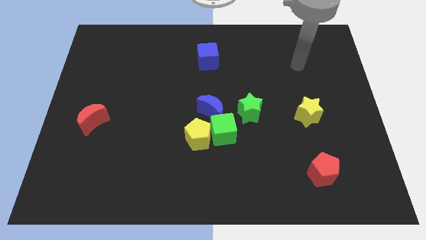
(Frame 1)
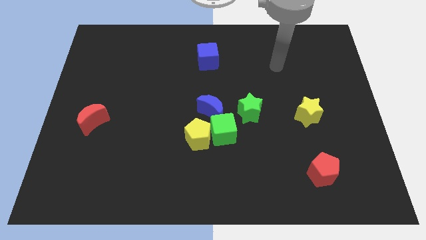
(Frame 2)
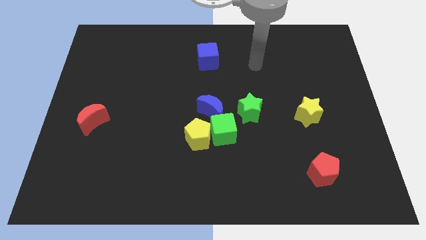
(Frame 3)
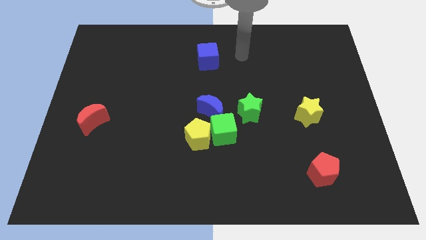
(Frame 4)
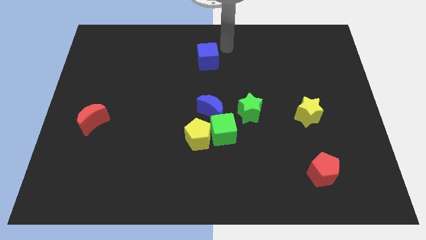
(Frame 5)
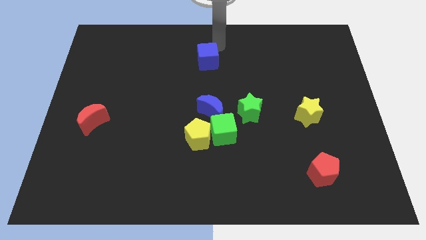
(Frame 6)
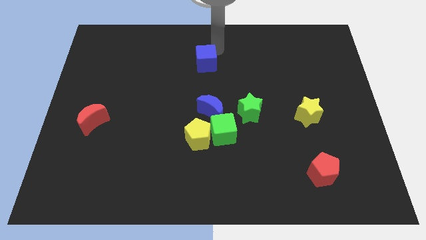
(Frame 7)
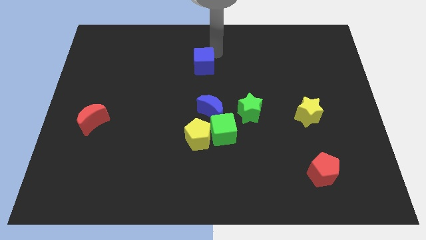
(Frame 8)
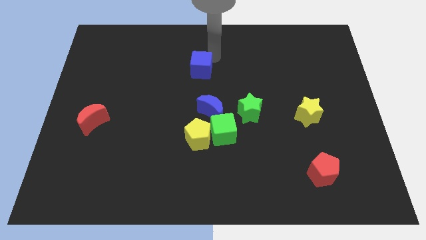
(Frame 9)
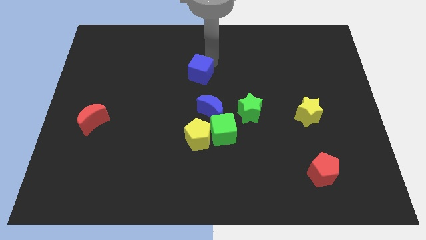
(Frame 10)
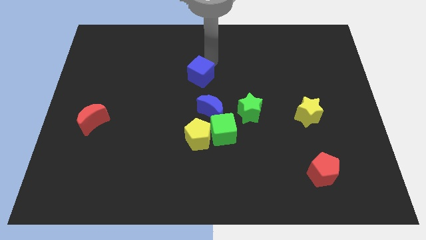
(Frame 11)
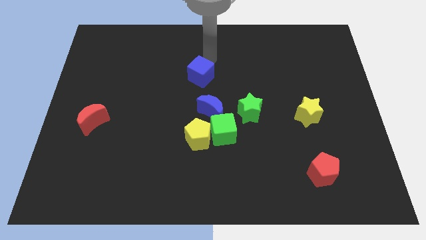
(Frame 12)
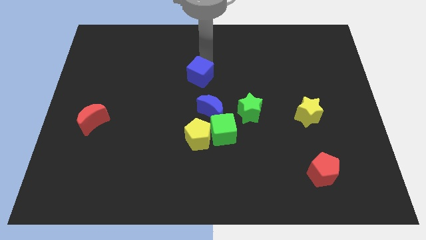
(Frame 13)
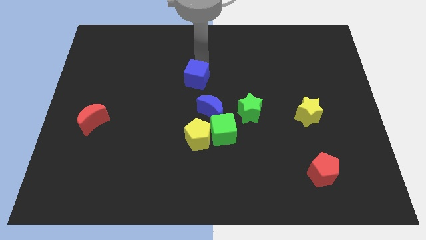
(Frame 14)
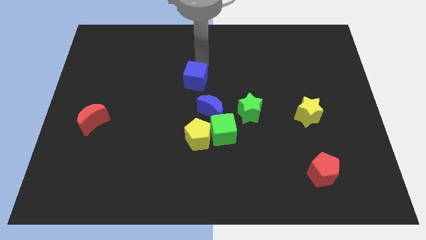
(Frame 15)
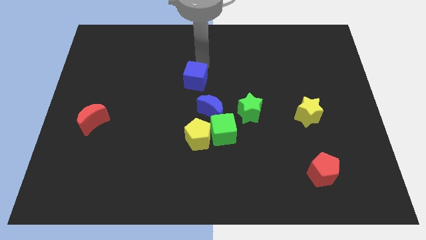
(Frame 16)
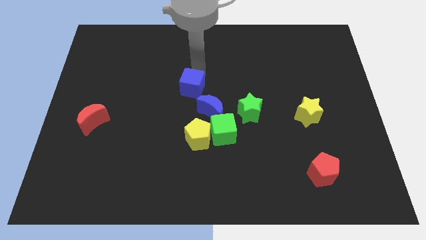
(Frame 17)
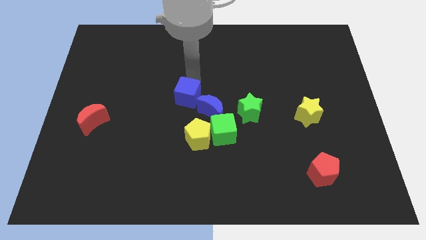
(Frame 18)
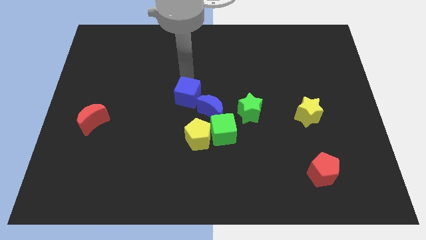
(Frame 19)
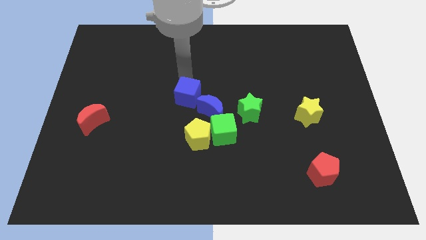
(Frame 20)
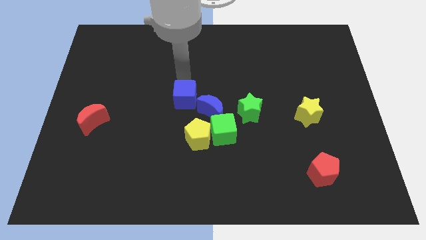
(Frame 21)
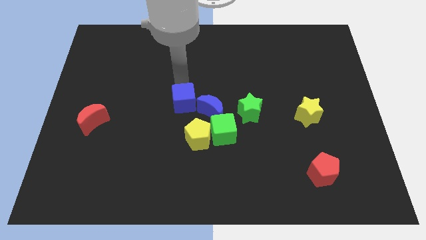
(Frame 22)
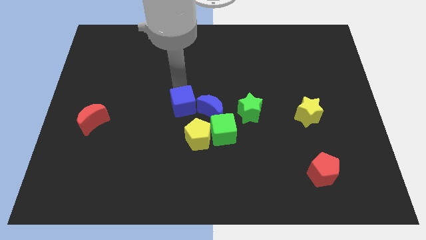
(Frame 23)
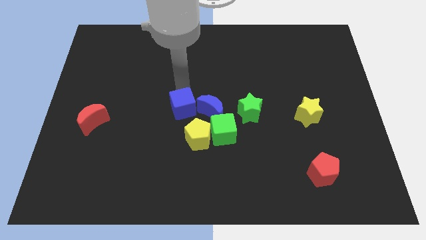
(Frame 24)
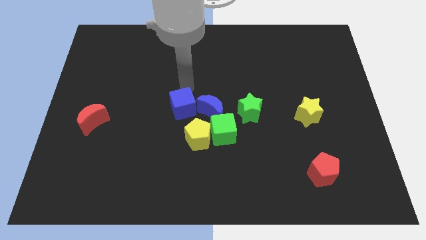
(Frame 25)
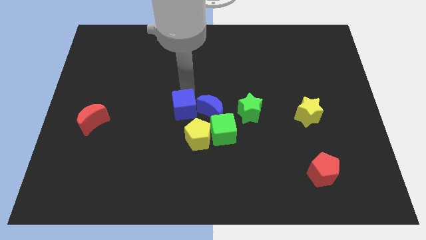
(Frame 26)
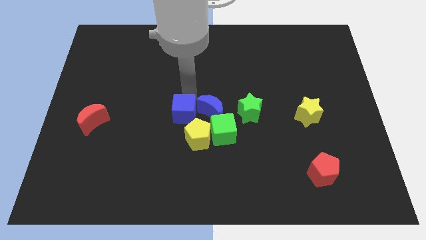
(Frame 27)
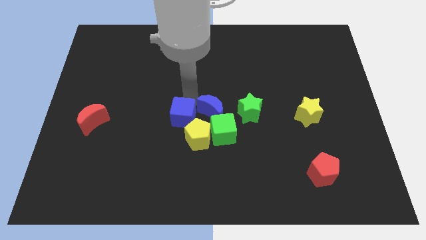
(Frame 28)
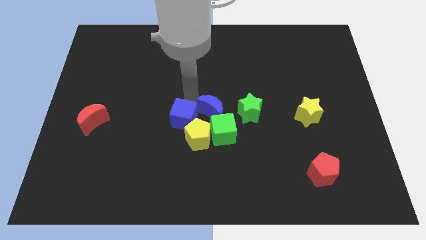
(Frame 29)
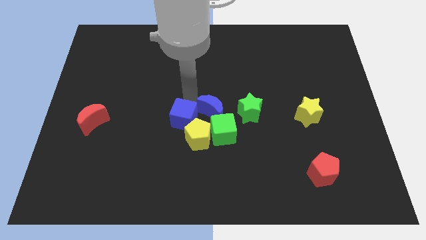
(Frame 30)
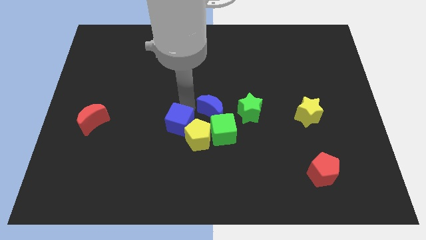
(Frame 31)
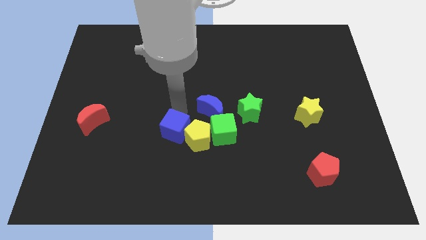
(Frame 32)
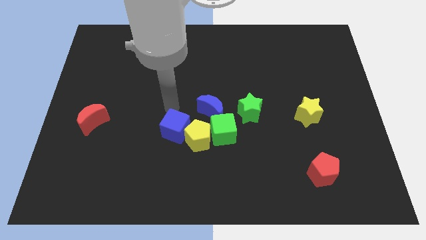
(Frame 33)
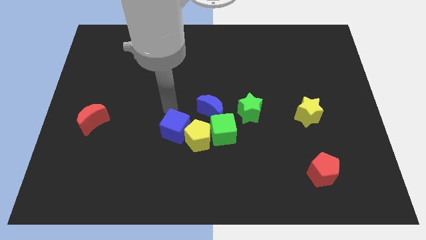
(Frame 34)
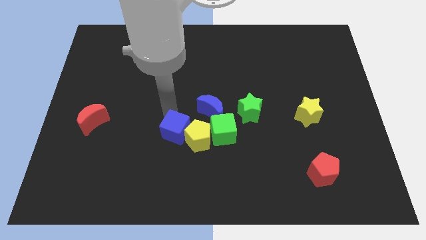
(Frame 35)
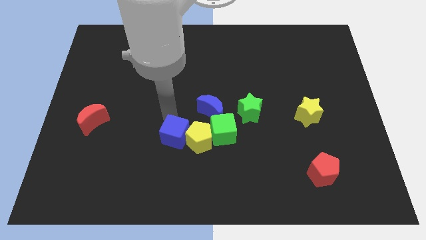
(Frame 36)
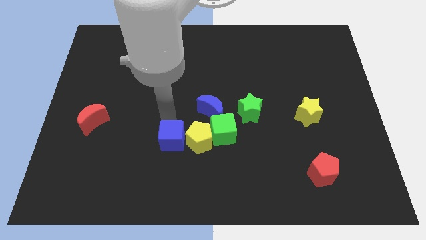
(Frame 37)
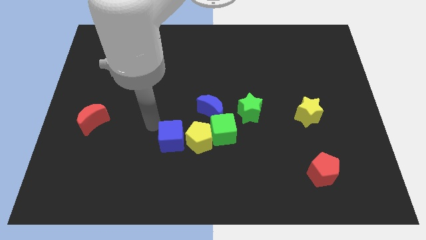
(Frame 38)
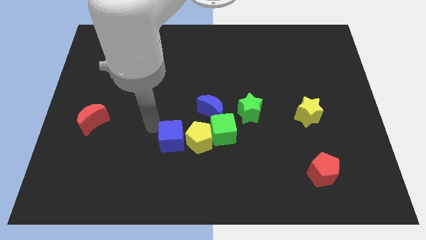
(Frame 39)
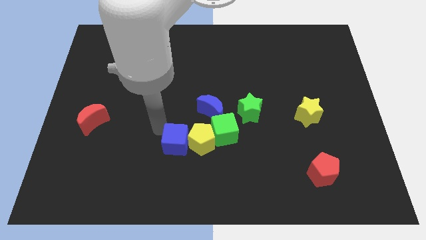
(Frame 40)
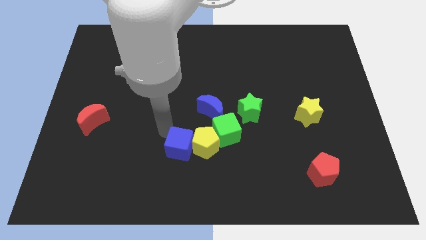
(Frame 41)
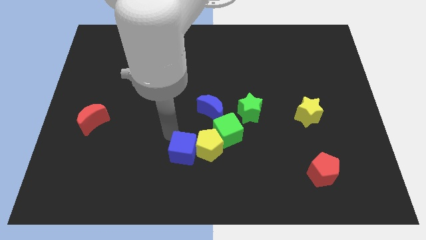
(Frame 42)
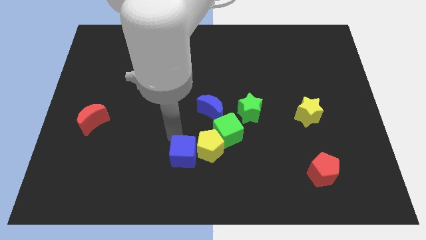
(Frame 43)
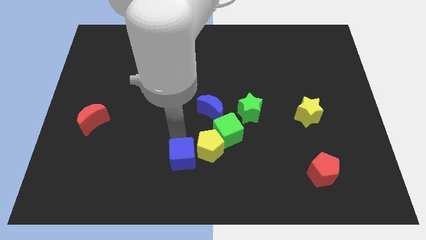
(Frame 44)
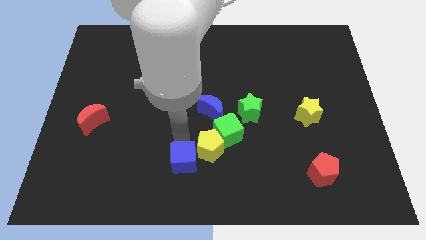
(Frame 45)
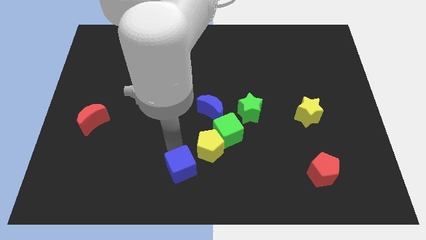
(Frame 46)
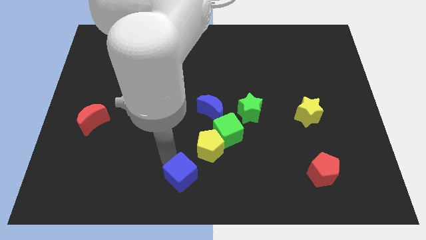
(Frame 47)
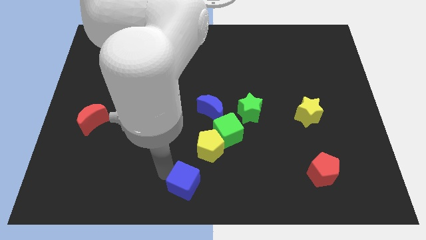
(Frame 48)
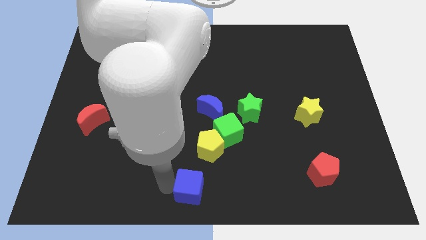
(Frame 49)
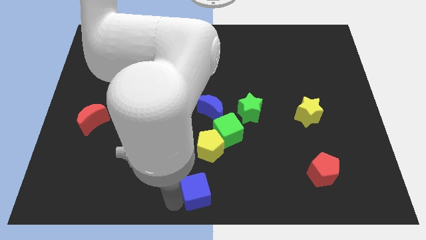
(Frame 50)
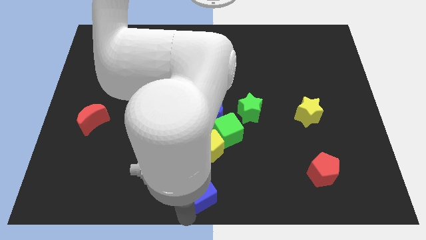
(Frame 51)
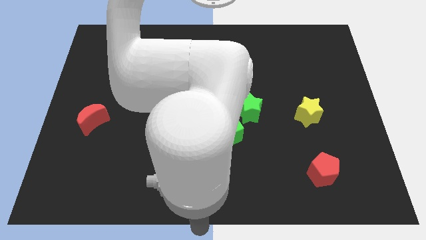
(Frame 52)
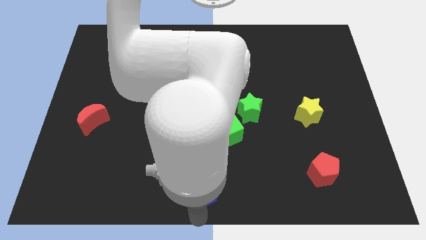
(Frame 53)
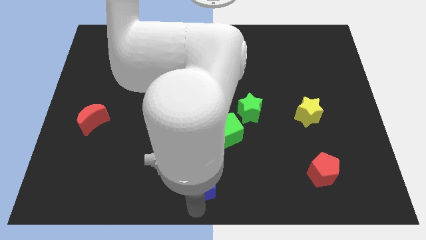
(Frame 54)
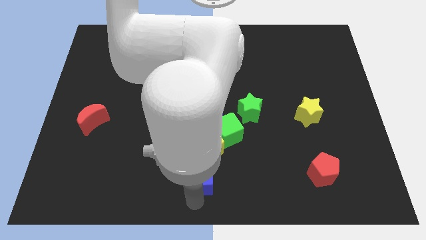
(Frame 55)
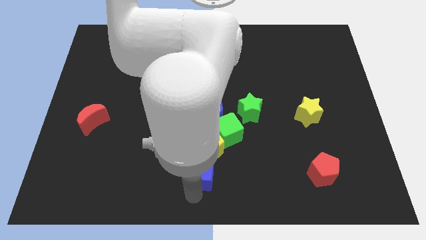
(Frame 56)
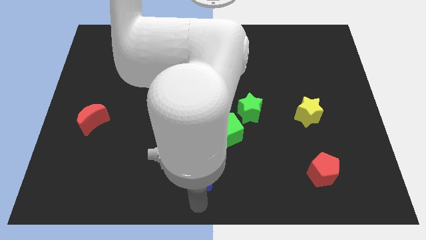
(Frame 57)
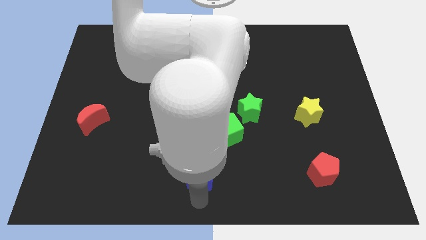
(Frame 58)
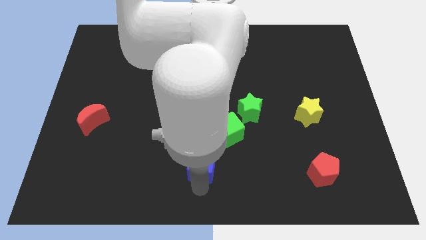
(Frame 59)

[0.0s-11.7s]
put the blue cube to the bottom right of the yellow pentagon

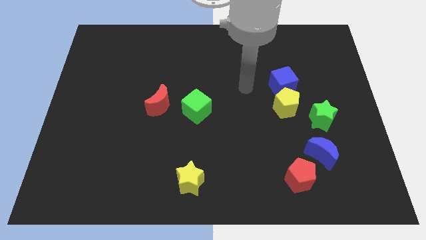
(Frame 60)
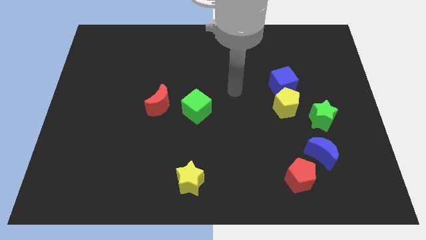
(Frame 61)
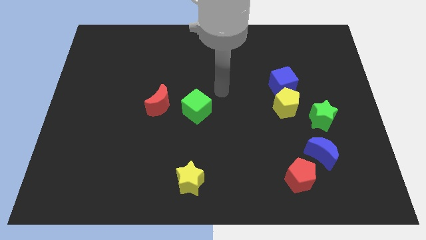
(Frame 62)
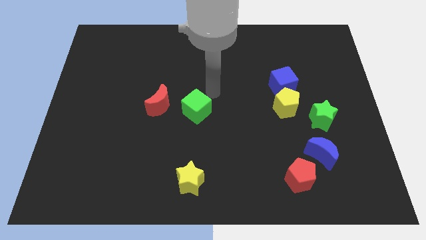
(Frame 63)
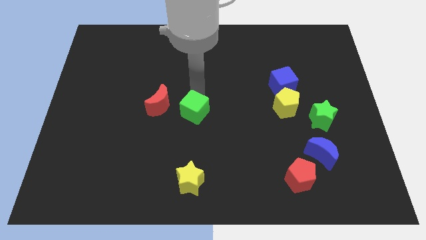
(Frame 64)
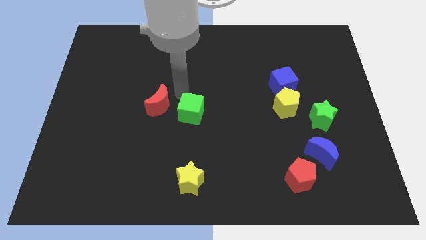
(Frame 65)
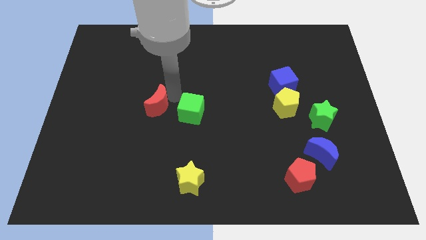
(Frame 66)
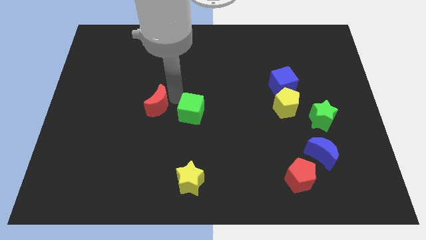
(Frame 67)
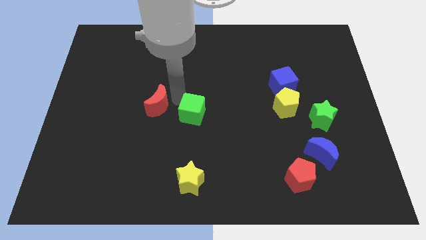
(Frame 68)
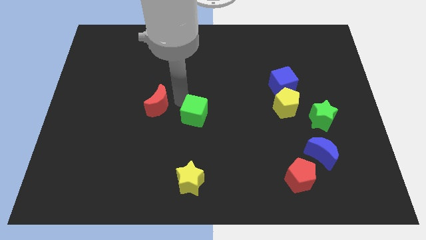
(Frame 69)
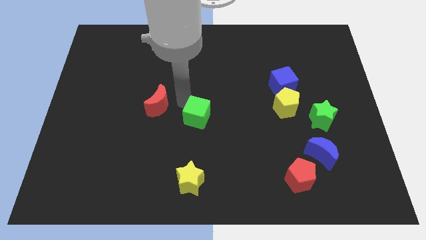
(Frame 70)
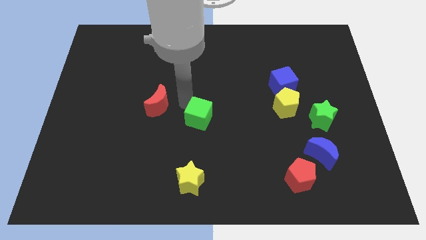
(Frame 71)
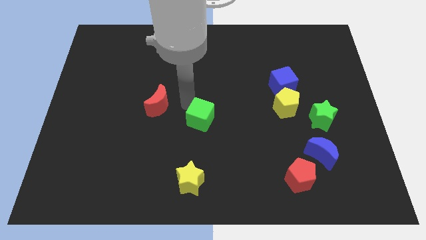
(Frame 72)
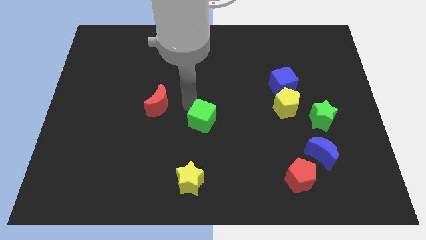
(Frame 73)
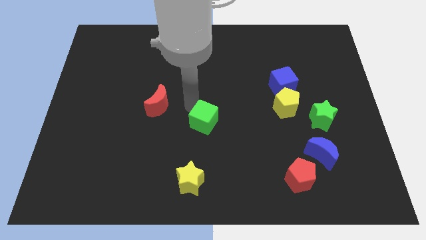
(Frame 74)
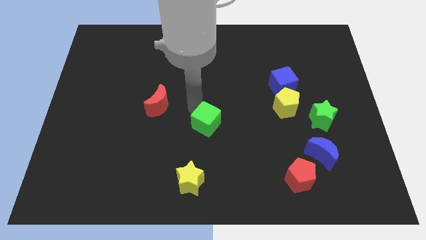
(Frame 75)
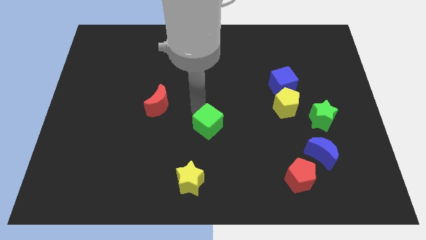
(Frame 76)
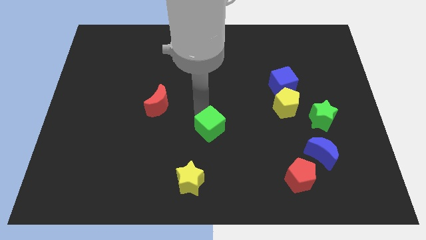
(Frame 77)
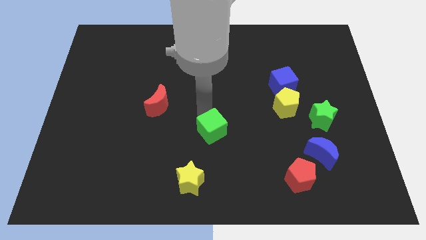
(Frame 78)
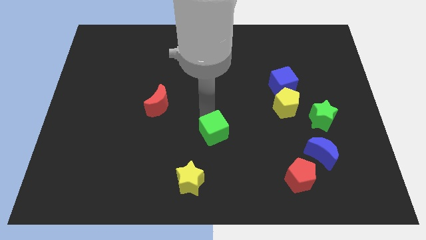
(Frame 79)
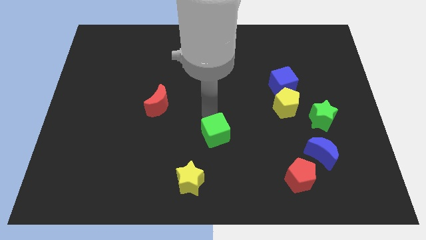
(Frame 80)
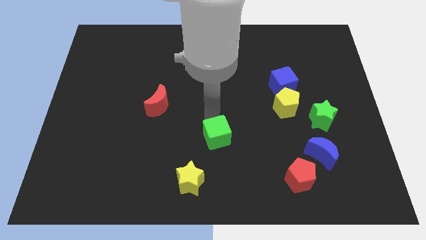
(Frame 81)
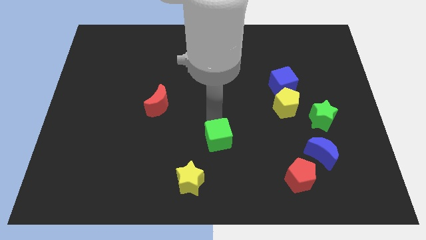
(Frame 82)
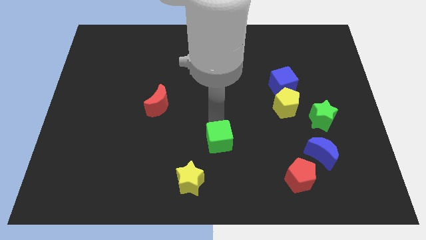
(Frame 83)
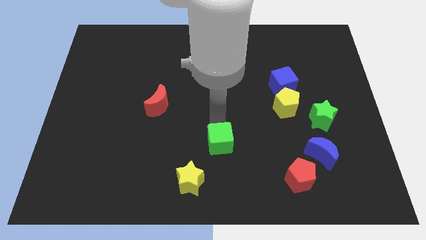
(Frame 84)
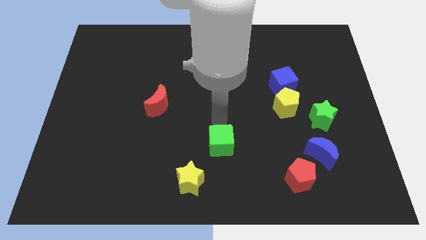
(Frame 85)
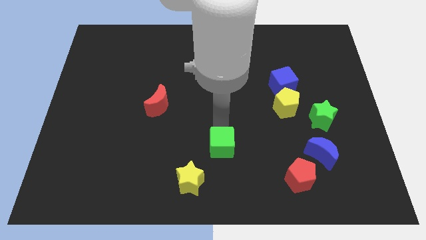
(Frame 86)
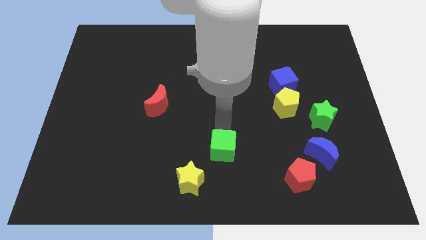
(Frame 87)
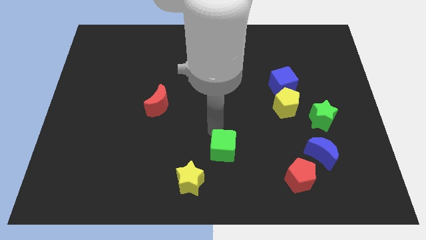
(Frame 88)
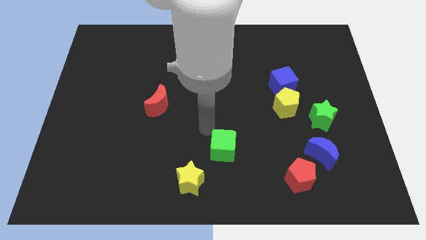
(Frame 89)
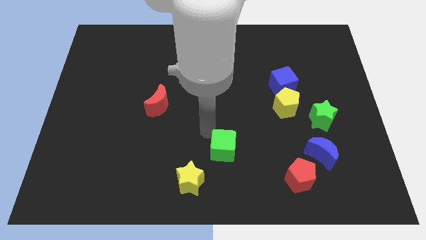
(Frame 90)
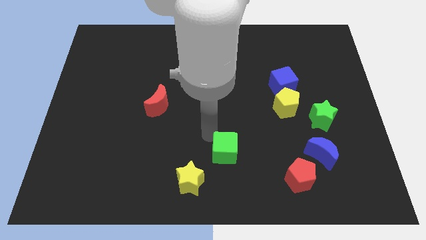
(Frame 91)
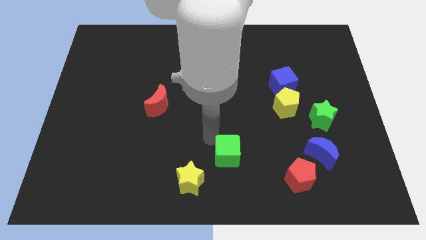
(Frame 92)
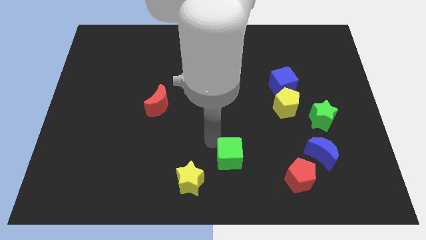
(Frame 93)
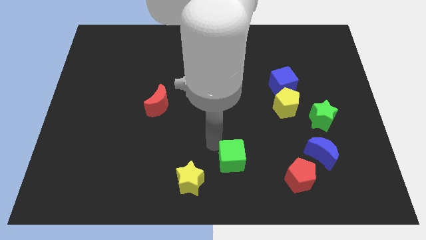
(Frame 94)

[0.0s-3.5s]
slide the green cube left of the red pentagon
